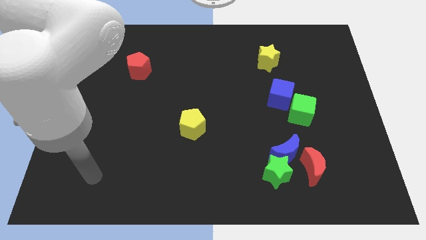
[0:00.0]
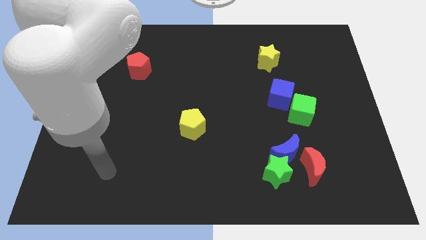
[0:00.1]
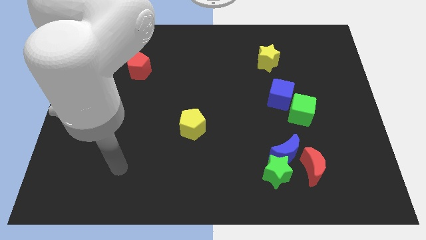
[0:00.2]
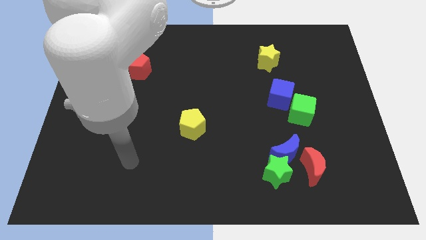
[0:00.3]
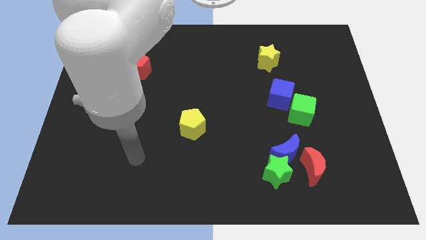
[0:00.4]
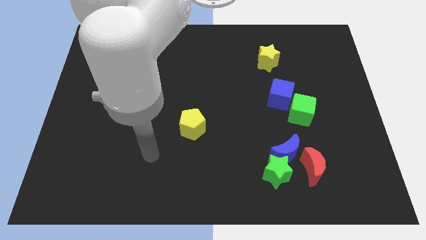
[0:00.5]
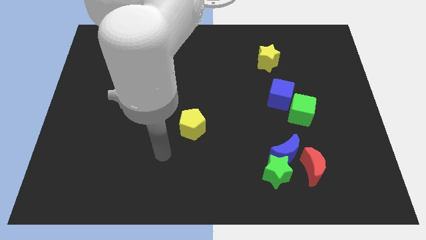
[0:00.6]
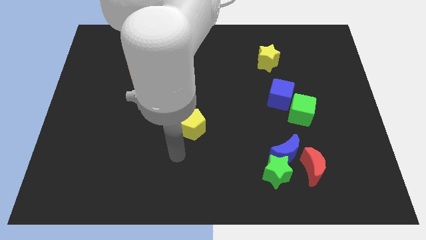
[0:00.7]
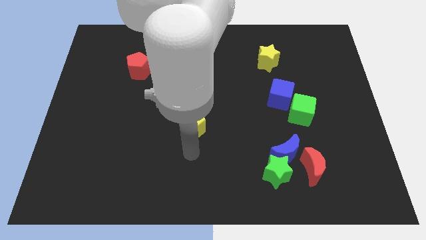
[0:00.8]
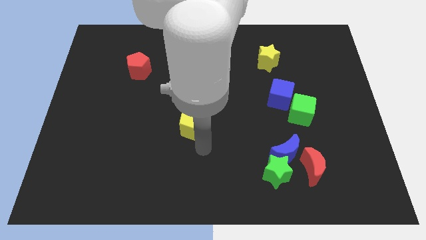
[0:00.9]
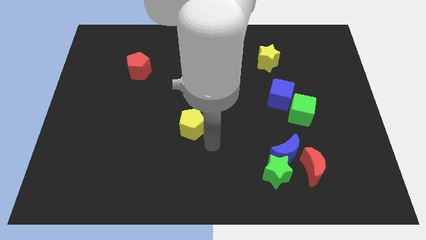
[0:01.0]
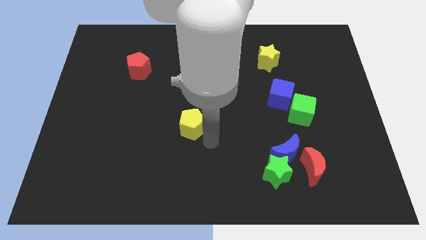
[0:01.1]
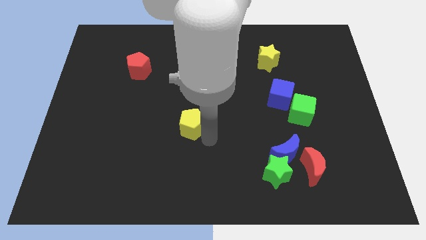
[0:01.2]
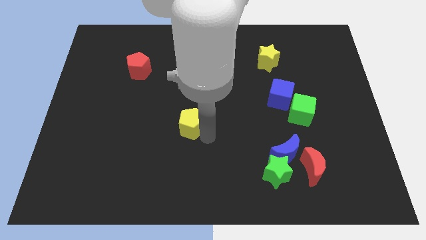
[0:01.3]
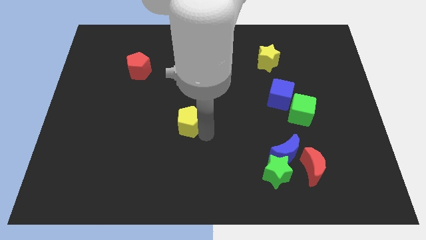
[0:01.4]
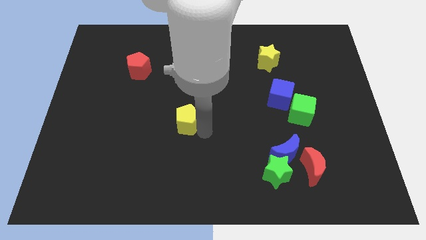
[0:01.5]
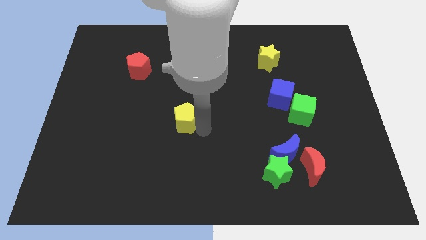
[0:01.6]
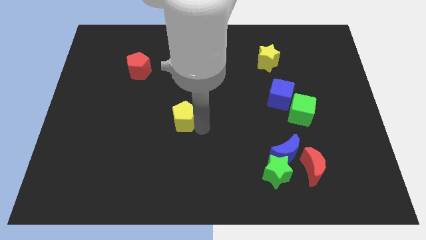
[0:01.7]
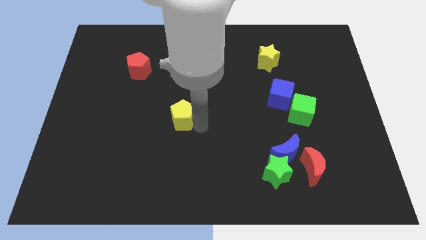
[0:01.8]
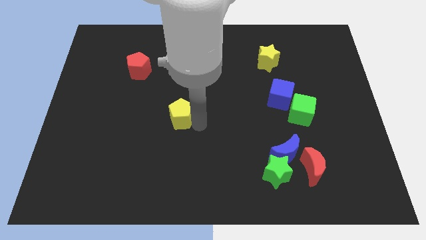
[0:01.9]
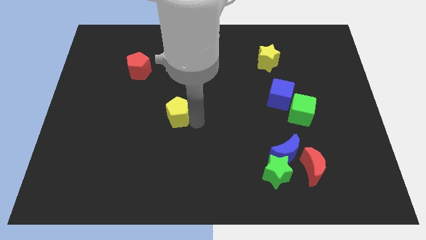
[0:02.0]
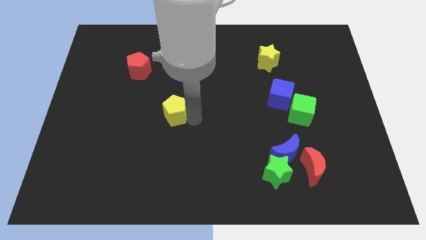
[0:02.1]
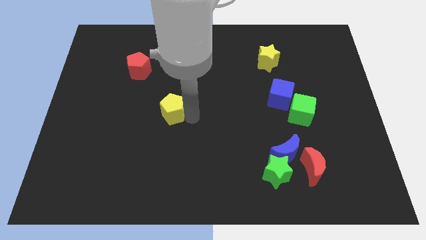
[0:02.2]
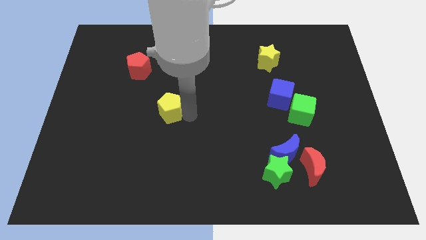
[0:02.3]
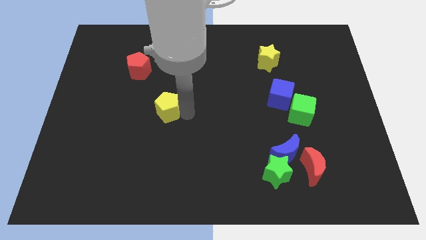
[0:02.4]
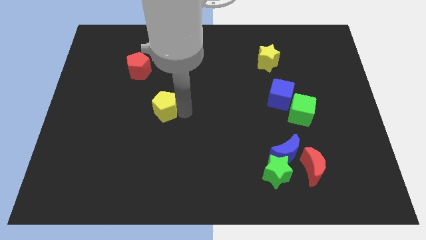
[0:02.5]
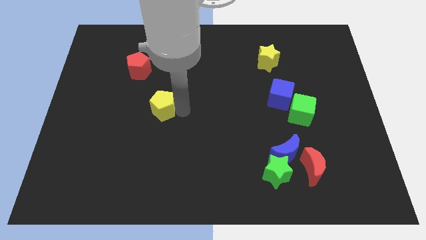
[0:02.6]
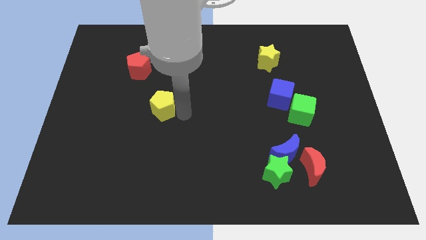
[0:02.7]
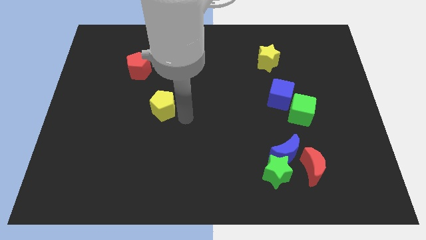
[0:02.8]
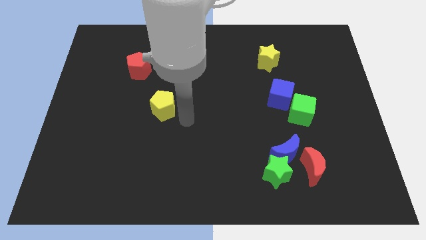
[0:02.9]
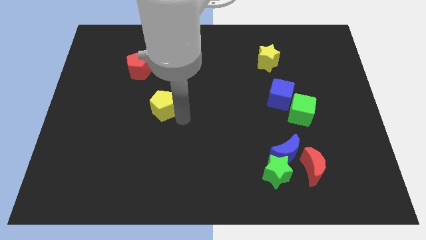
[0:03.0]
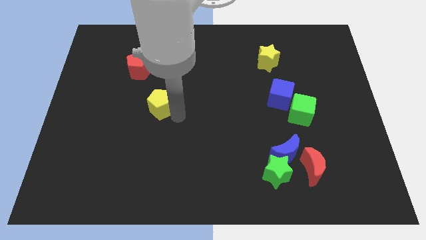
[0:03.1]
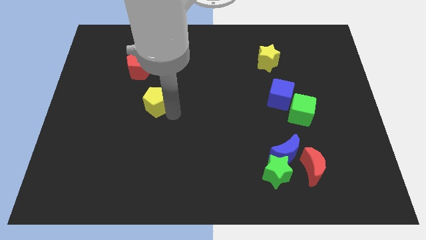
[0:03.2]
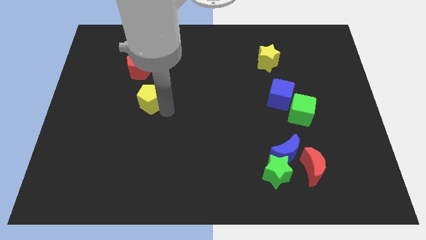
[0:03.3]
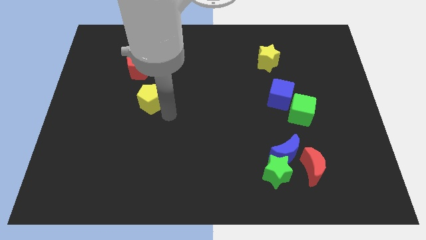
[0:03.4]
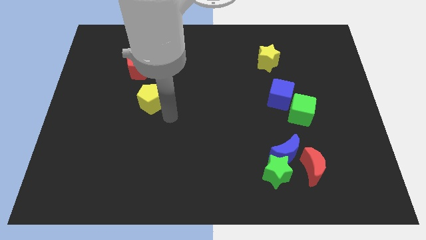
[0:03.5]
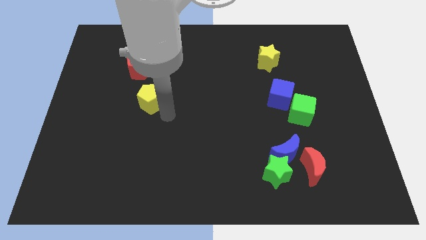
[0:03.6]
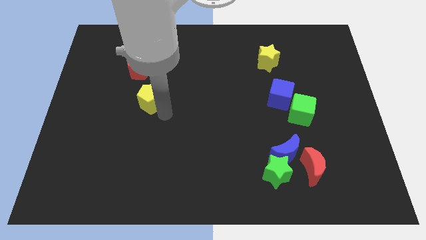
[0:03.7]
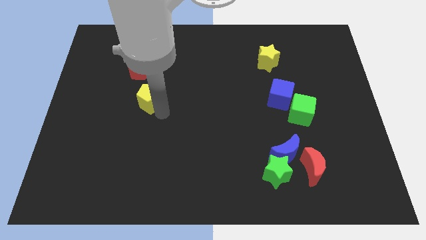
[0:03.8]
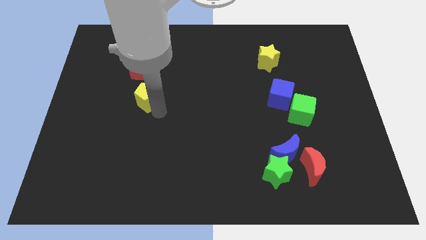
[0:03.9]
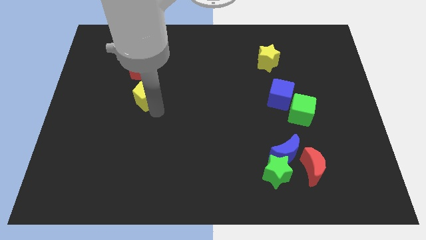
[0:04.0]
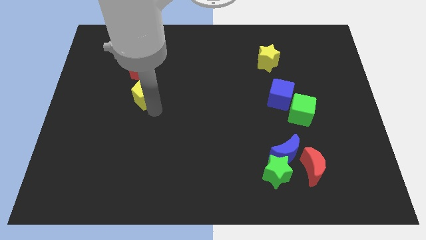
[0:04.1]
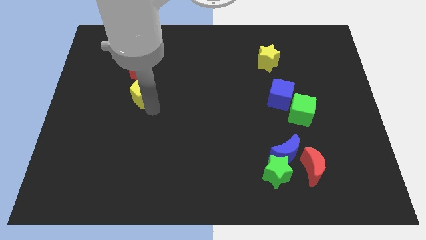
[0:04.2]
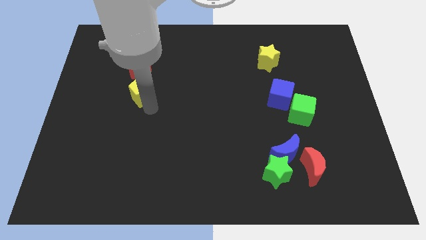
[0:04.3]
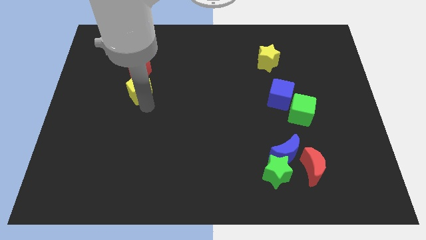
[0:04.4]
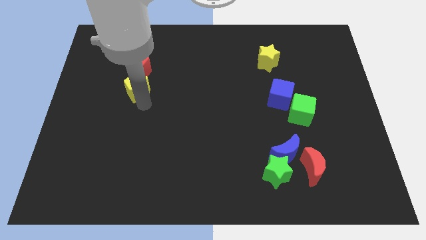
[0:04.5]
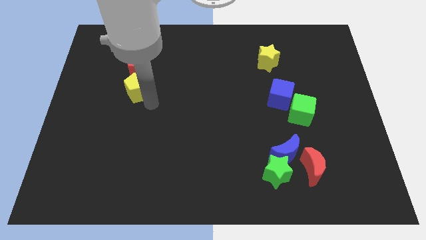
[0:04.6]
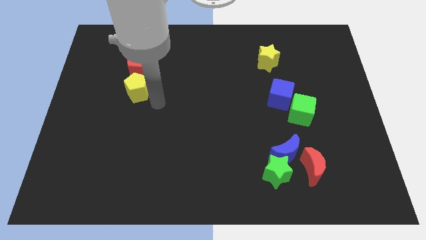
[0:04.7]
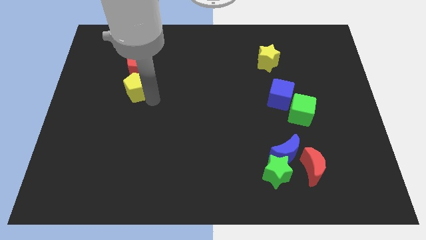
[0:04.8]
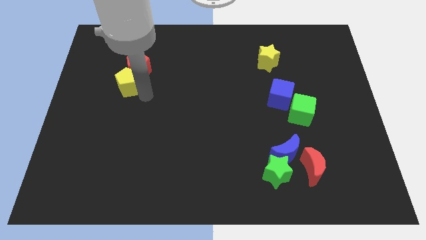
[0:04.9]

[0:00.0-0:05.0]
push the yellow pentagon up and then left

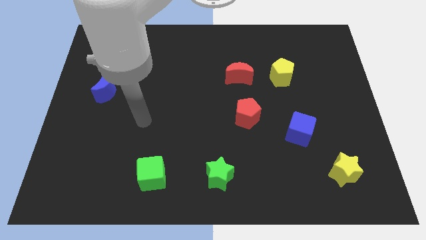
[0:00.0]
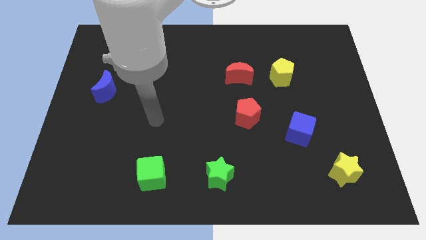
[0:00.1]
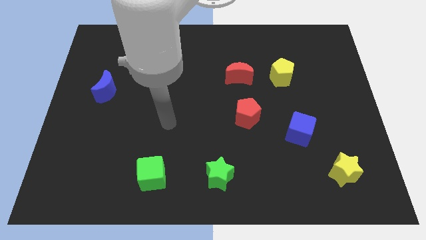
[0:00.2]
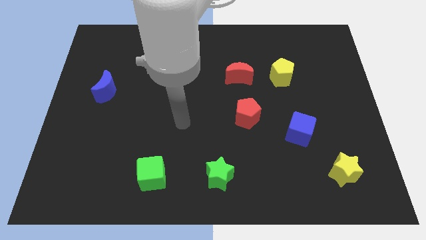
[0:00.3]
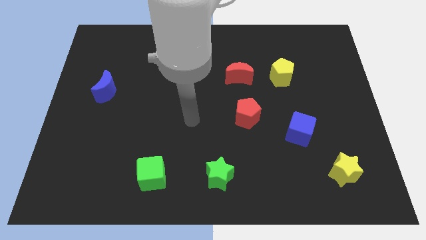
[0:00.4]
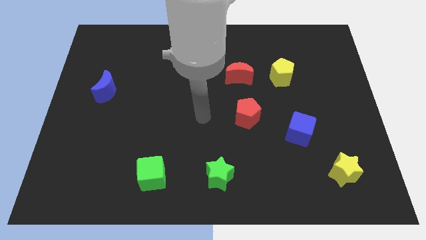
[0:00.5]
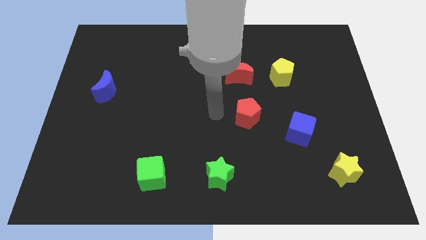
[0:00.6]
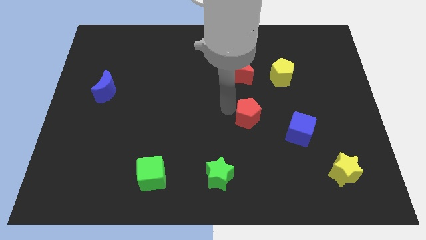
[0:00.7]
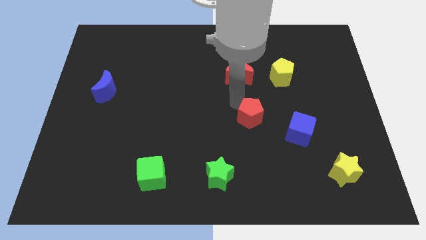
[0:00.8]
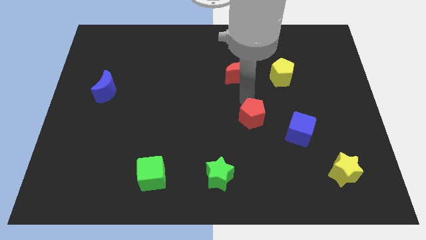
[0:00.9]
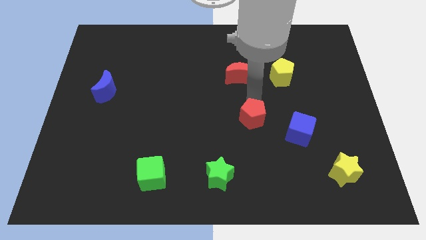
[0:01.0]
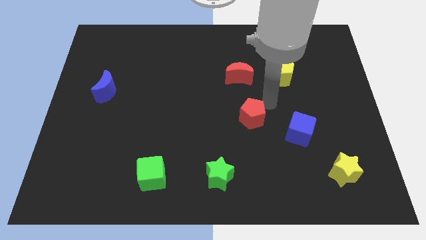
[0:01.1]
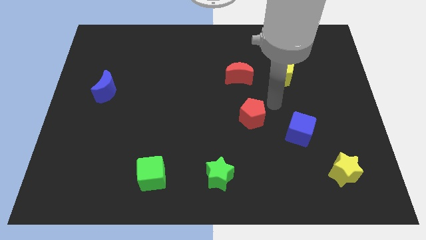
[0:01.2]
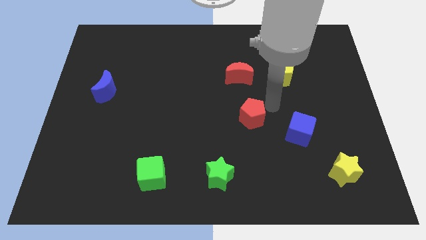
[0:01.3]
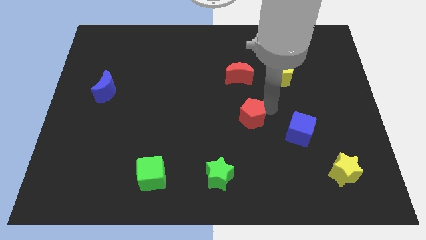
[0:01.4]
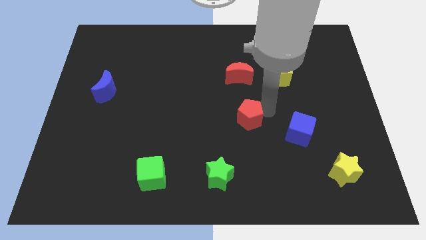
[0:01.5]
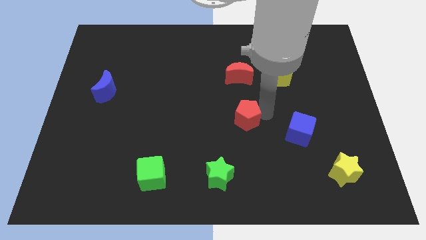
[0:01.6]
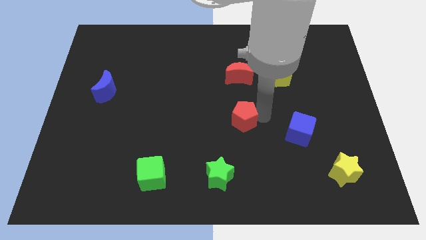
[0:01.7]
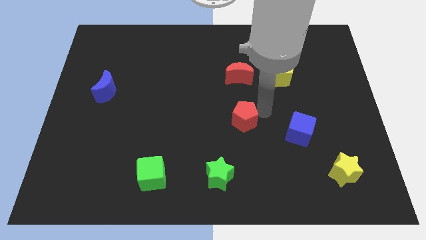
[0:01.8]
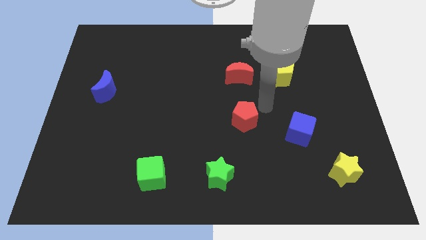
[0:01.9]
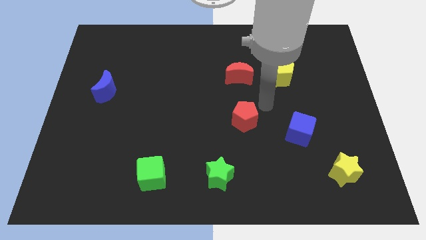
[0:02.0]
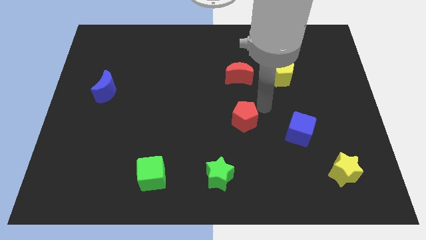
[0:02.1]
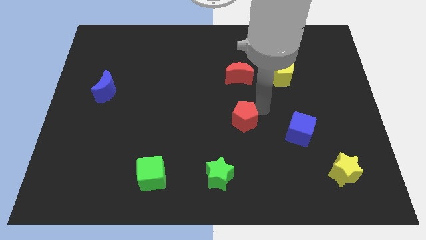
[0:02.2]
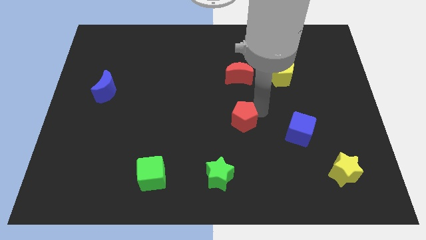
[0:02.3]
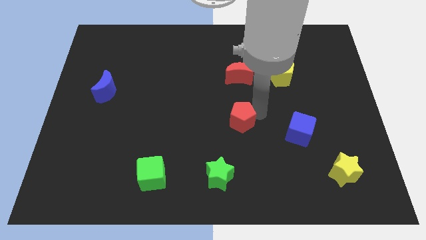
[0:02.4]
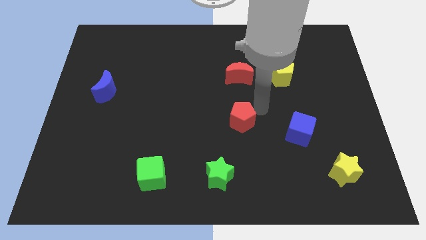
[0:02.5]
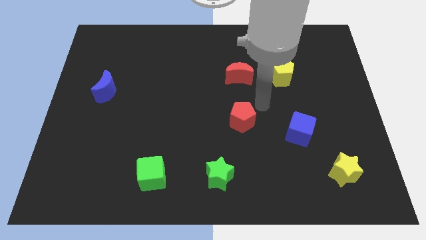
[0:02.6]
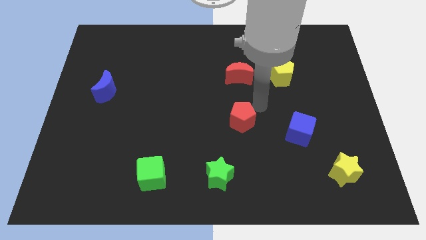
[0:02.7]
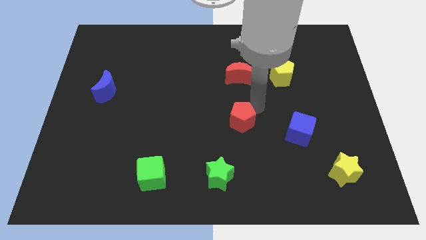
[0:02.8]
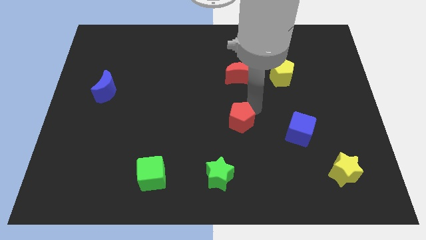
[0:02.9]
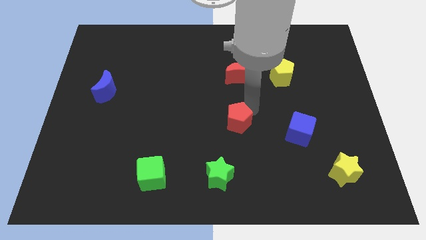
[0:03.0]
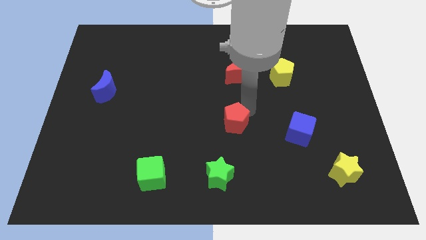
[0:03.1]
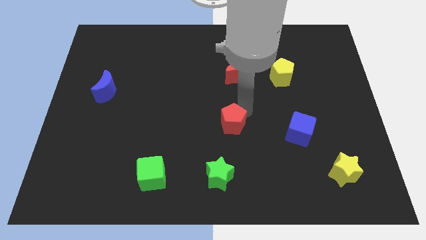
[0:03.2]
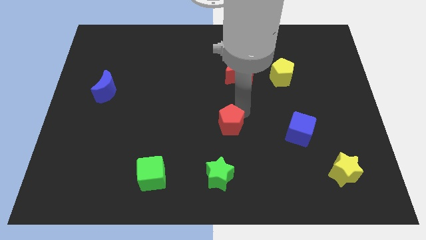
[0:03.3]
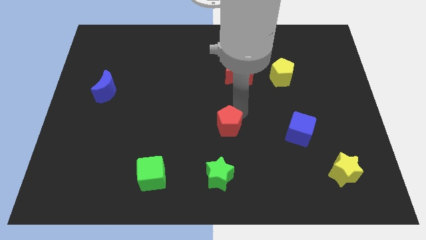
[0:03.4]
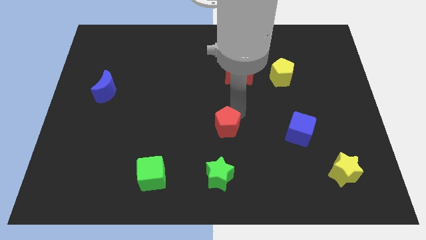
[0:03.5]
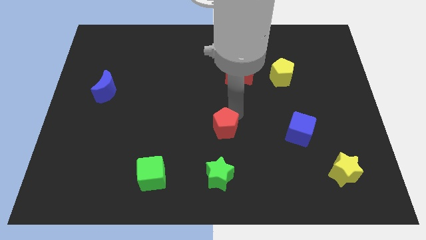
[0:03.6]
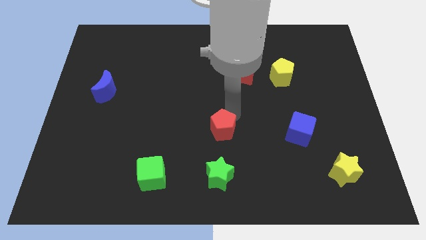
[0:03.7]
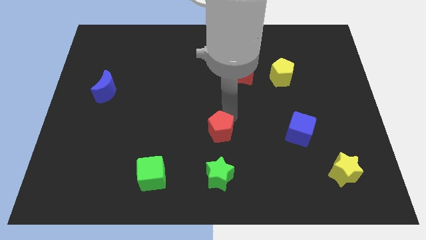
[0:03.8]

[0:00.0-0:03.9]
slightly move the red pentagon downwards and then left
